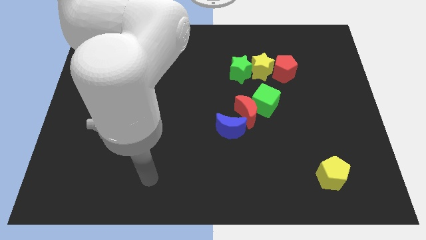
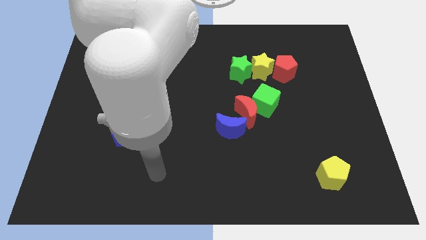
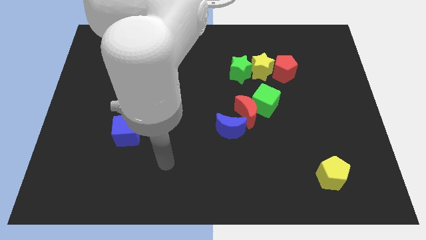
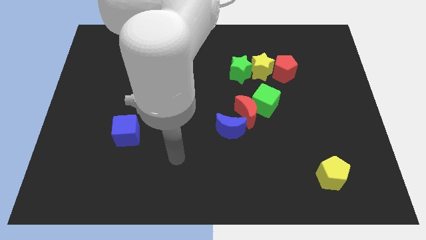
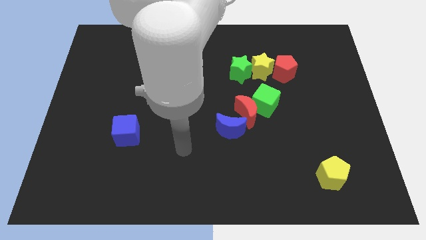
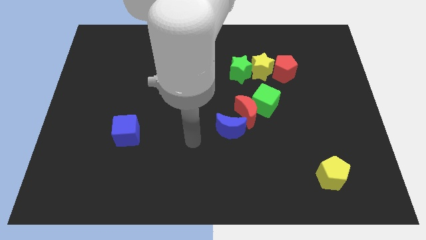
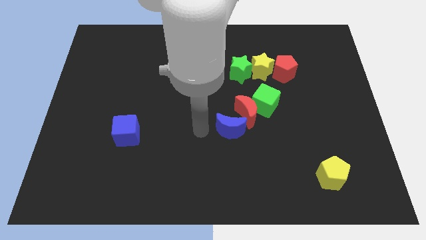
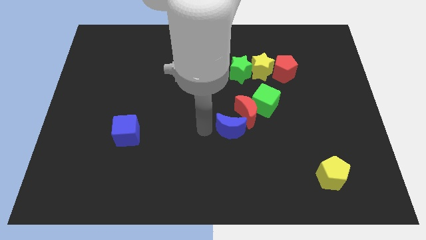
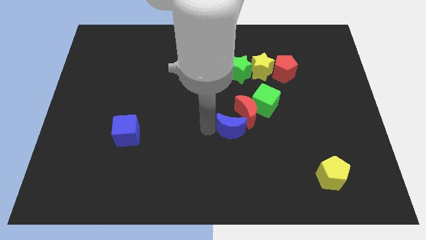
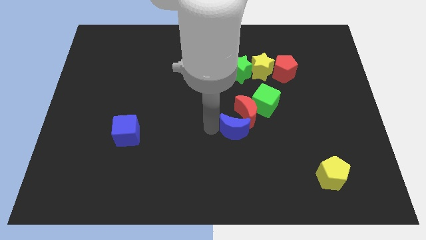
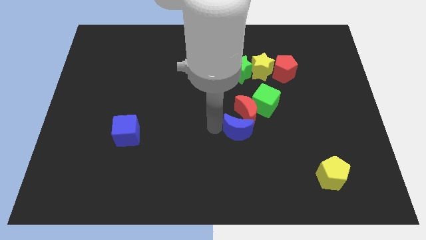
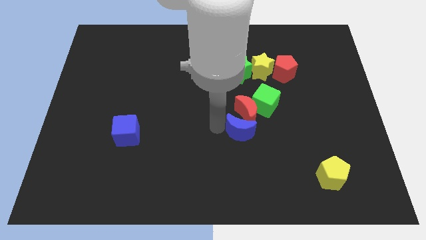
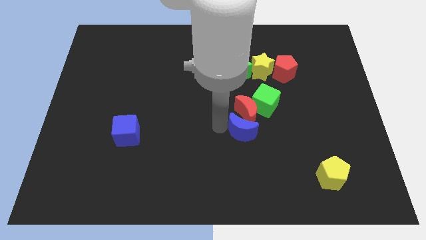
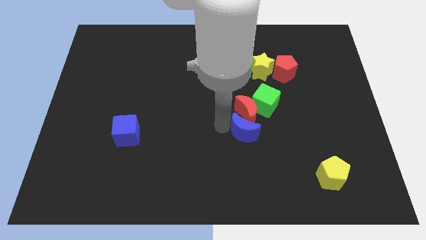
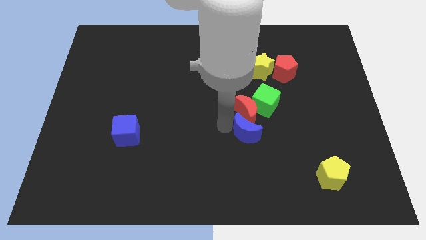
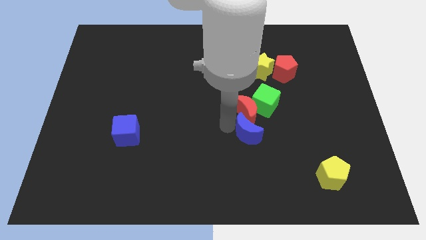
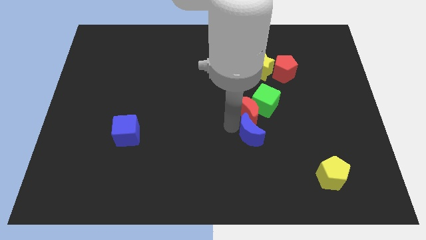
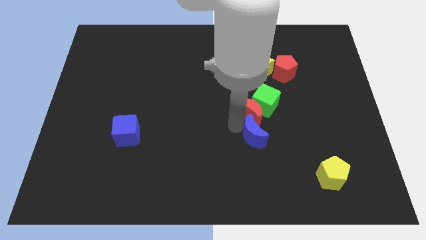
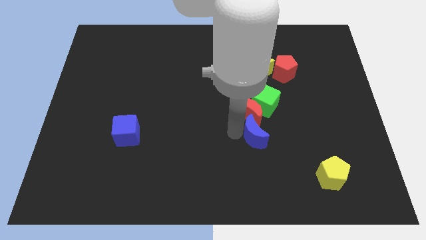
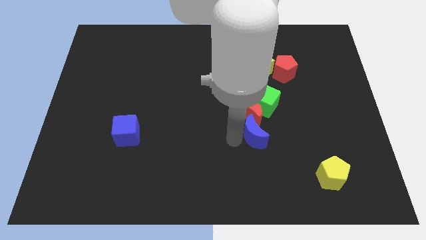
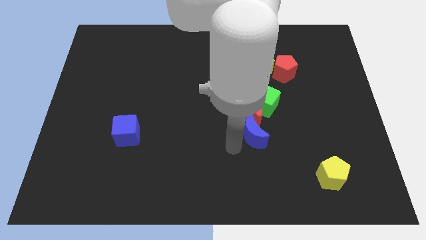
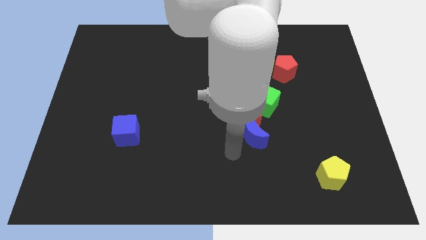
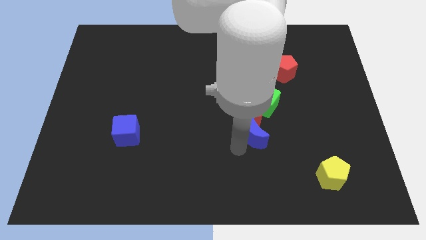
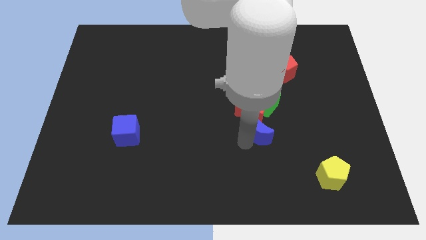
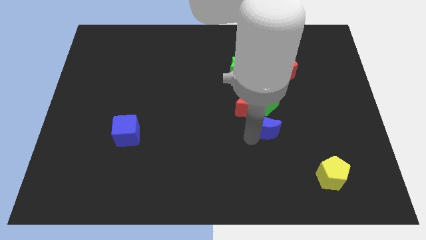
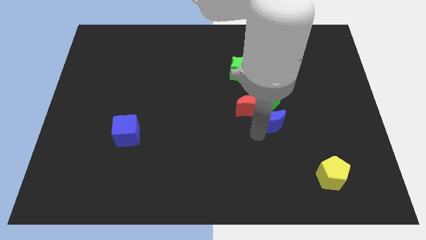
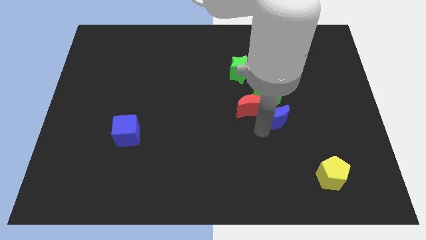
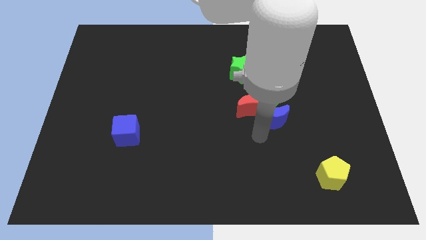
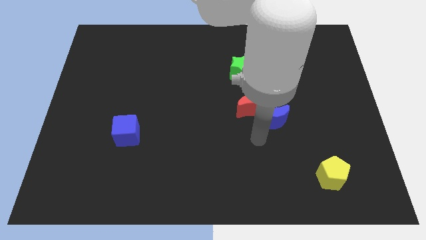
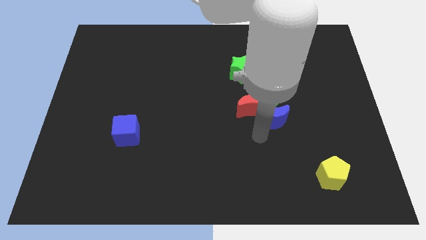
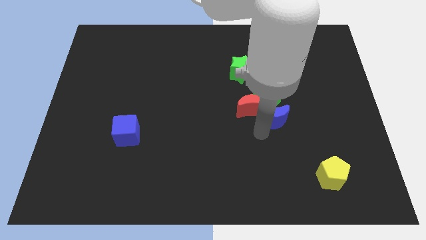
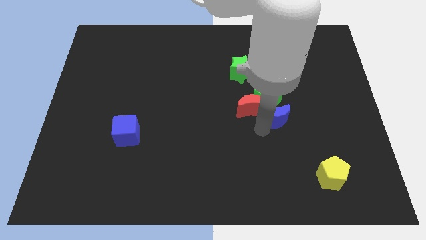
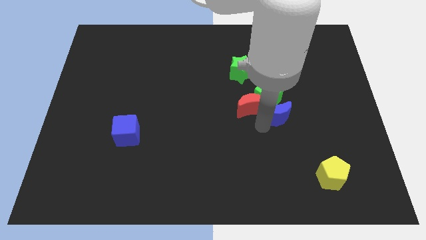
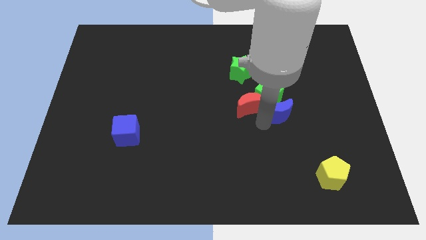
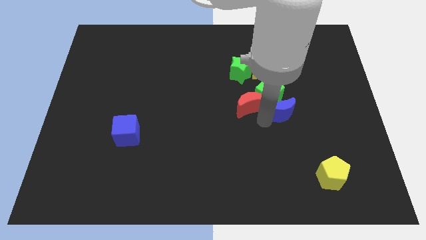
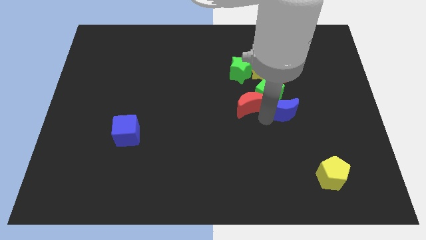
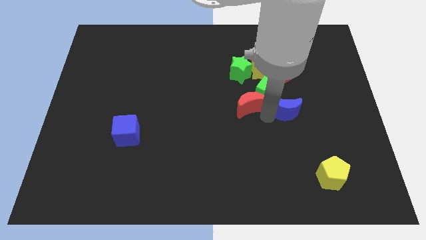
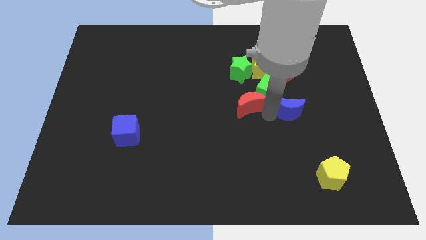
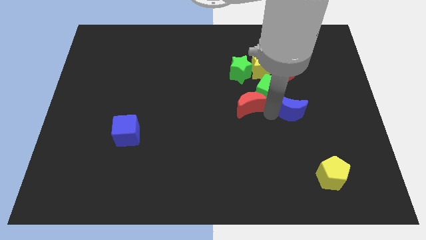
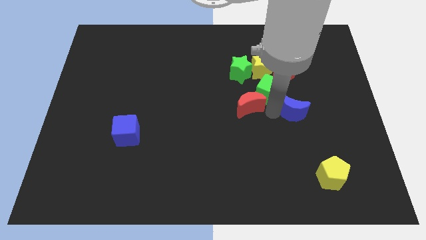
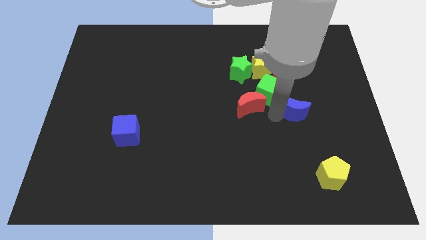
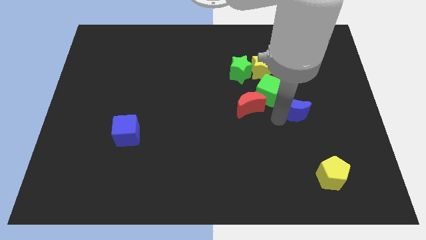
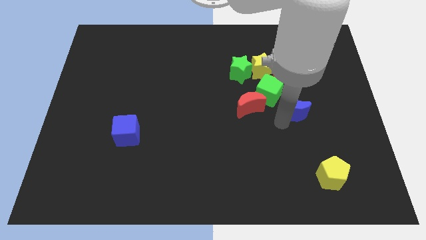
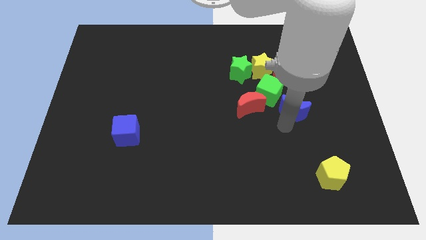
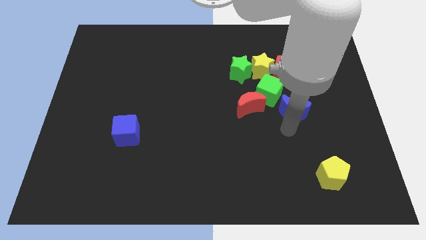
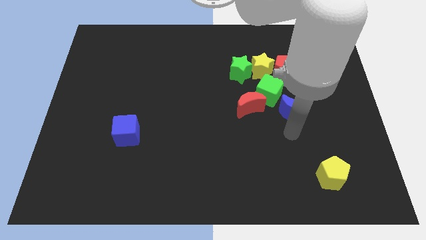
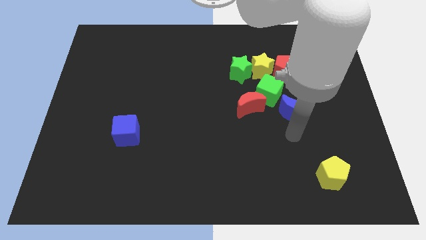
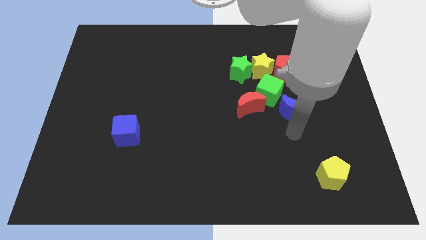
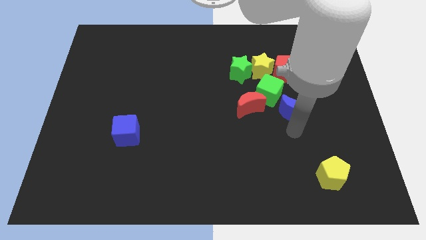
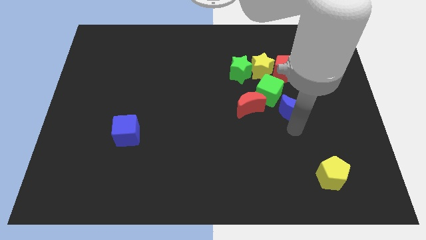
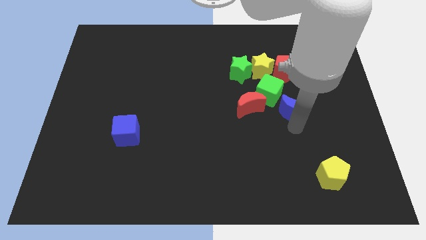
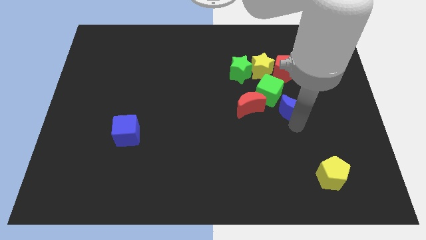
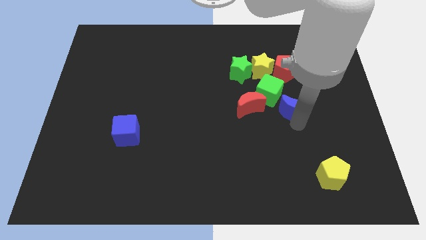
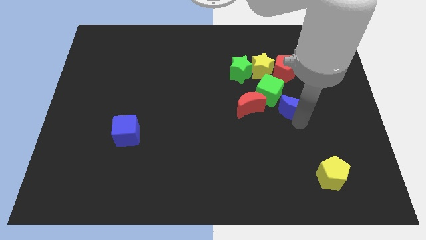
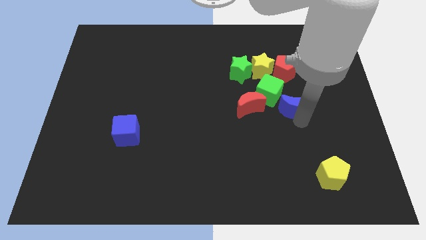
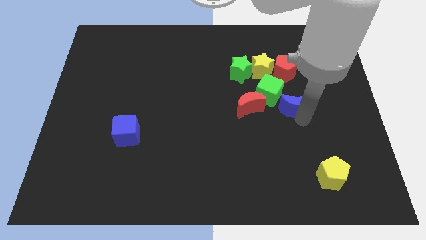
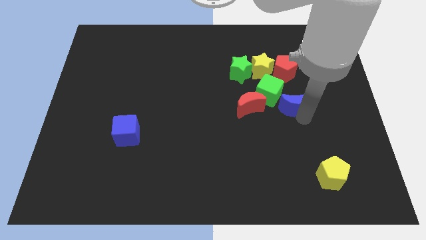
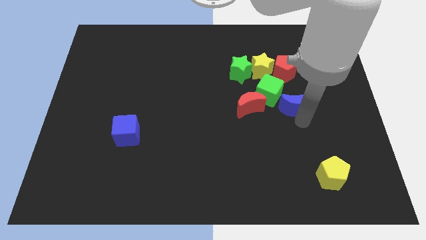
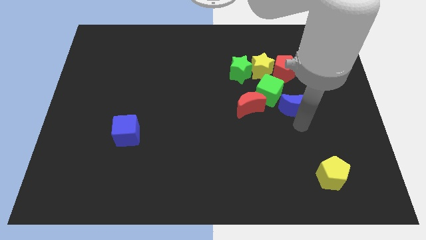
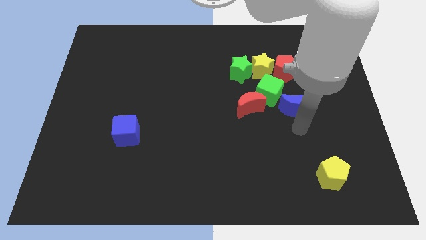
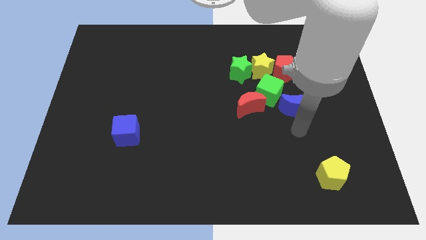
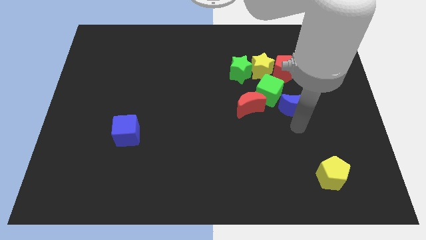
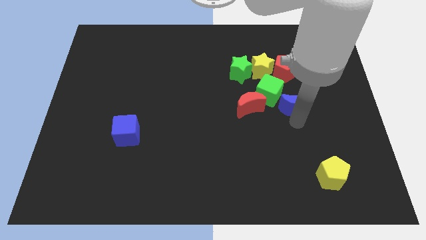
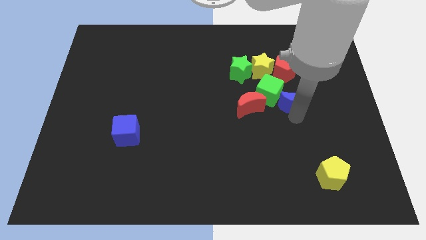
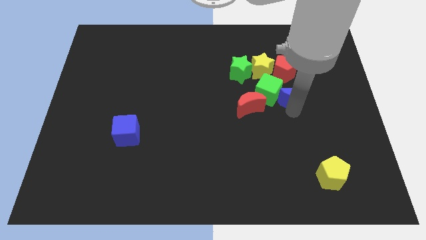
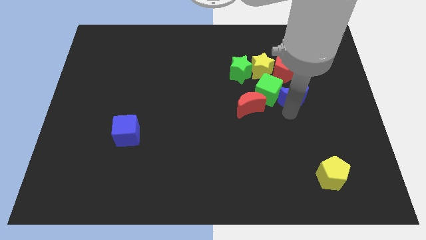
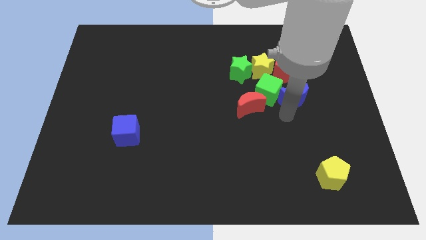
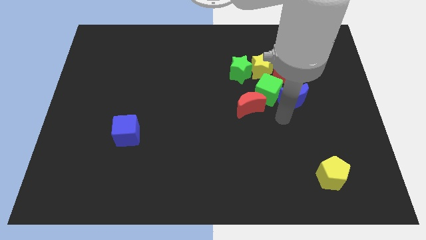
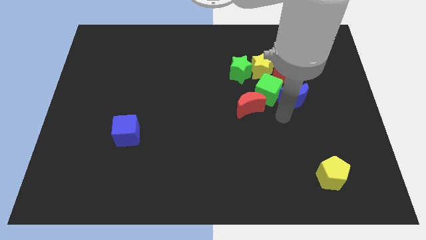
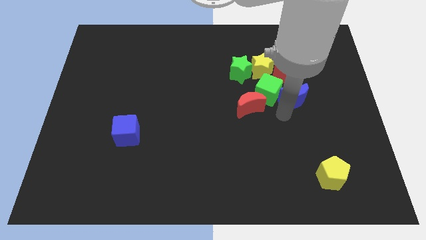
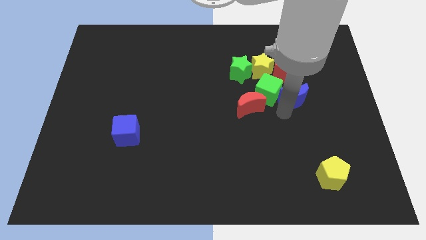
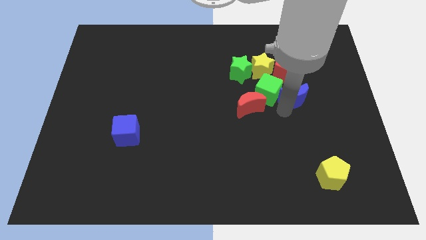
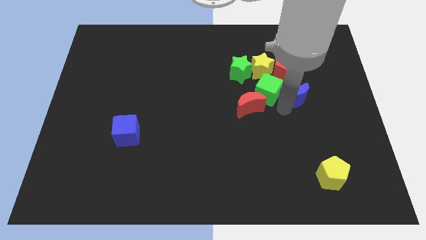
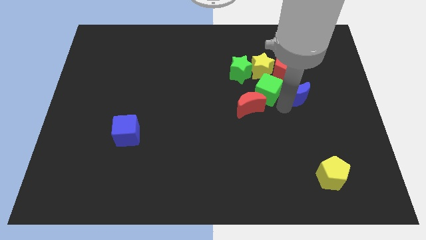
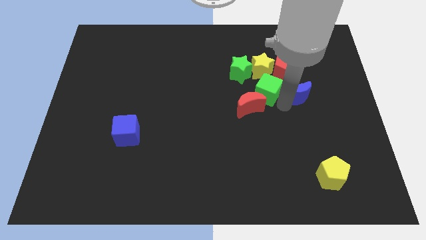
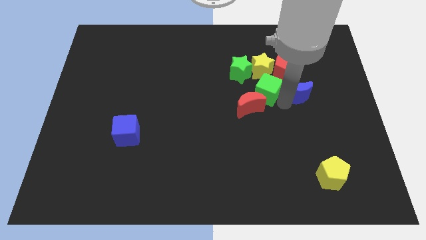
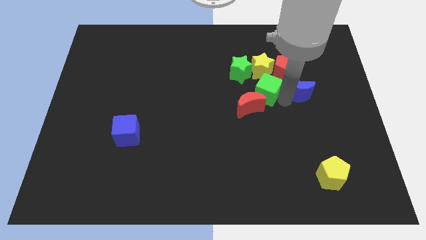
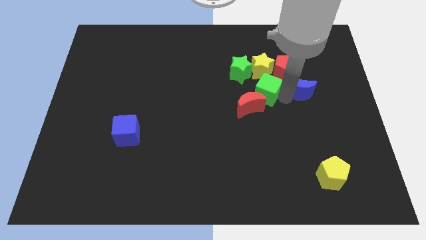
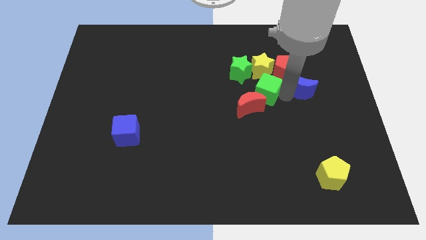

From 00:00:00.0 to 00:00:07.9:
move the blue moon upwards and right diagonally

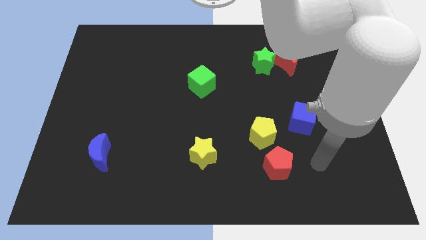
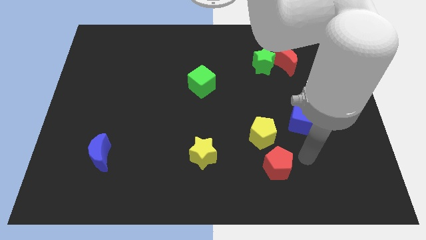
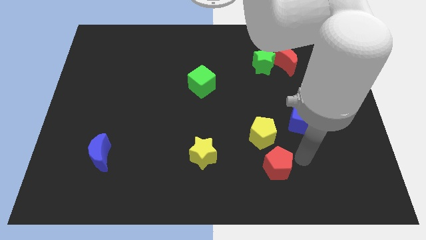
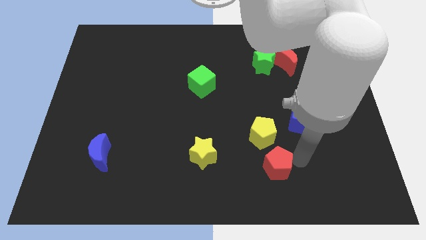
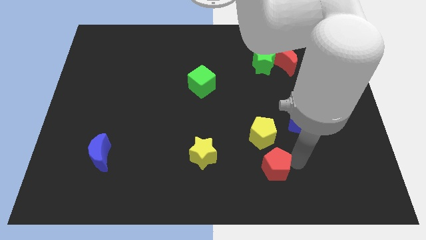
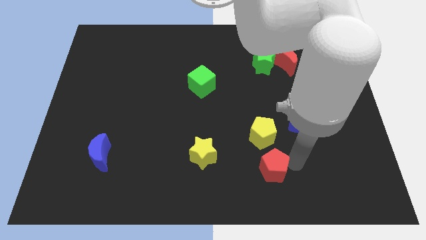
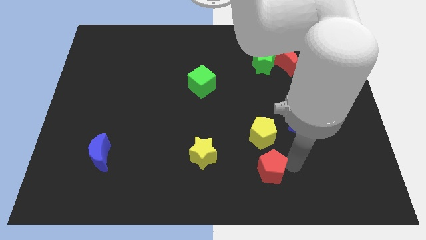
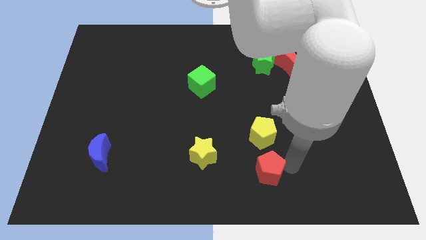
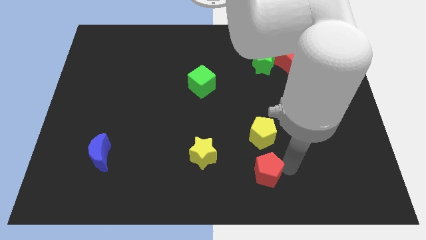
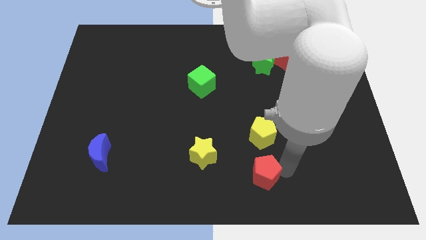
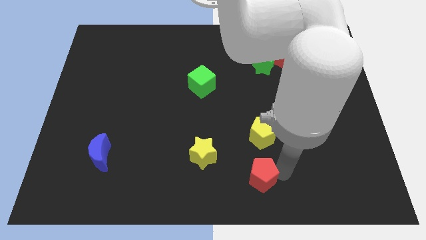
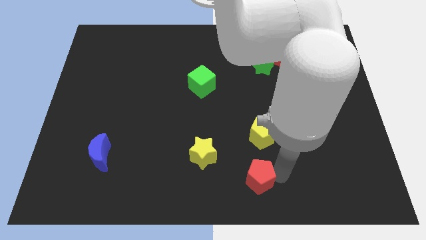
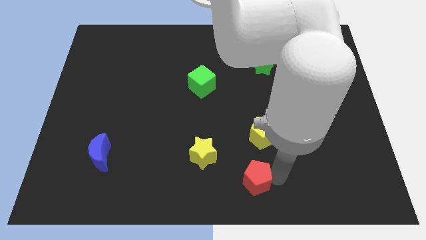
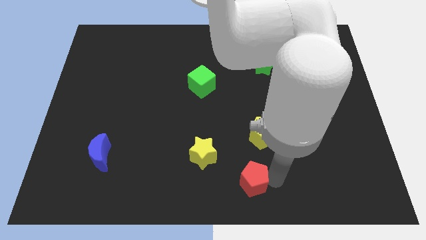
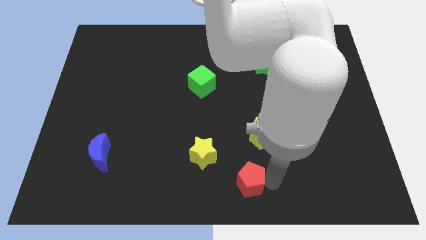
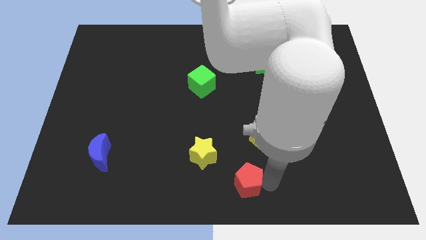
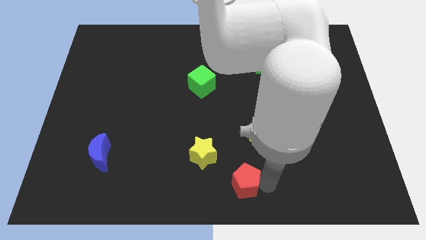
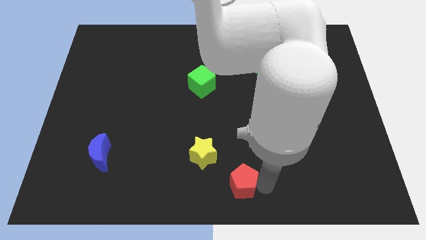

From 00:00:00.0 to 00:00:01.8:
slightly push the red pentagon left
